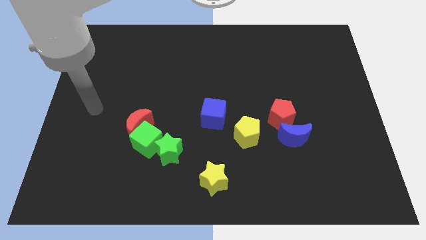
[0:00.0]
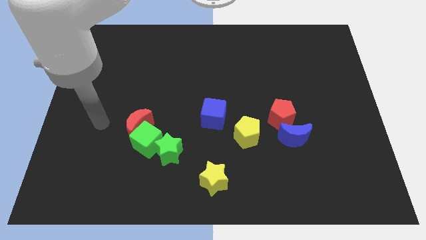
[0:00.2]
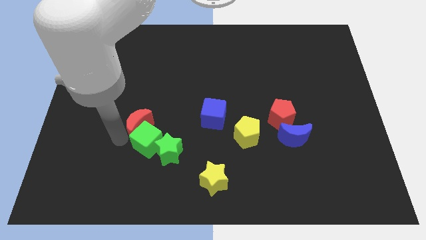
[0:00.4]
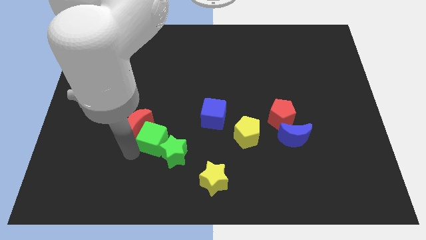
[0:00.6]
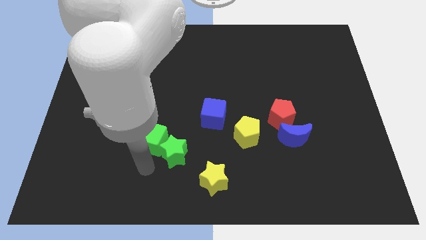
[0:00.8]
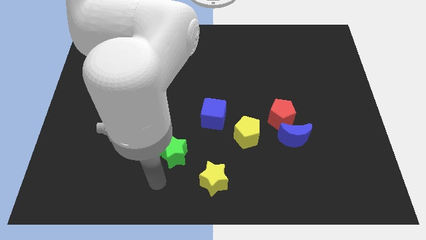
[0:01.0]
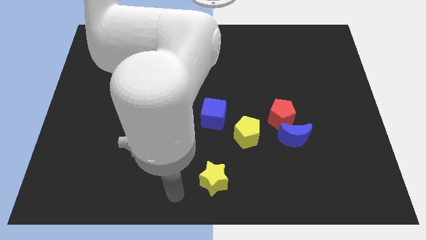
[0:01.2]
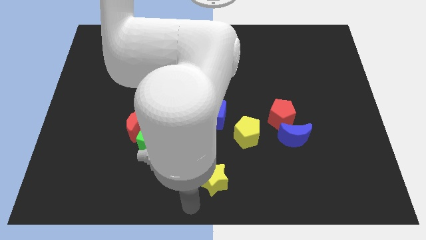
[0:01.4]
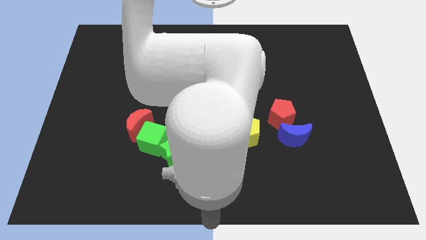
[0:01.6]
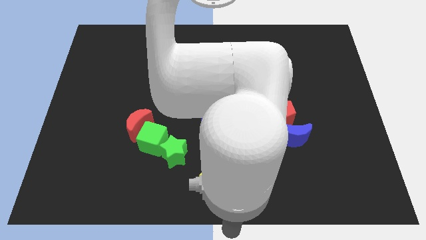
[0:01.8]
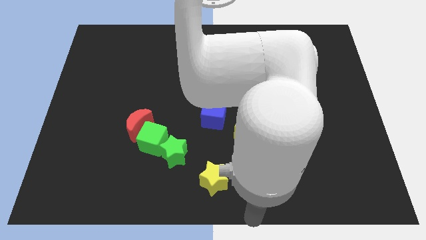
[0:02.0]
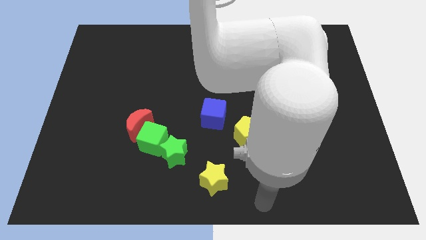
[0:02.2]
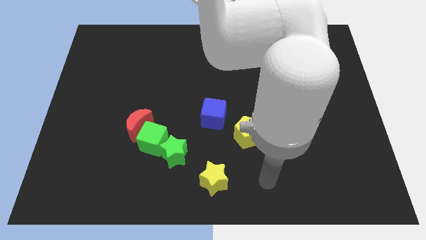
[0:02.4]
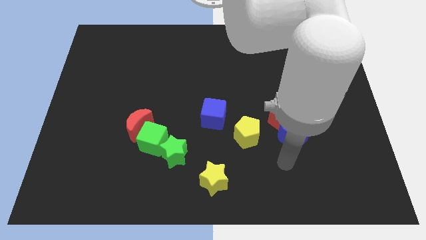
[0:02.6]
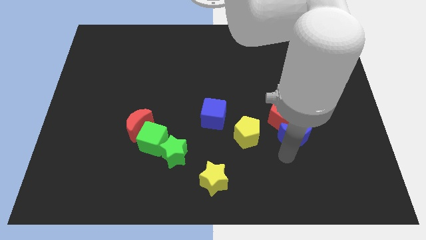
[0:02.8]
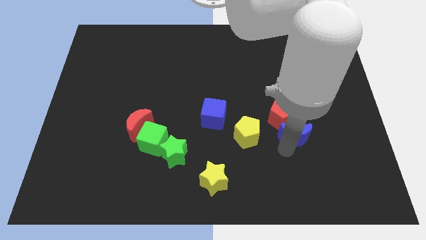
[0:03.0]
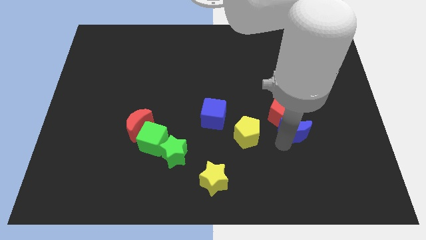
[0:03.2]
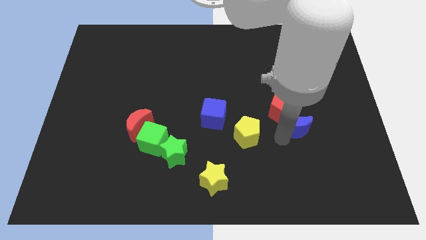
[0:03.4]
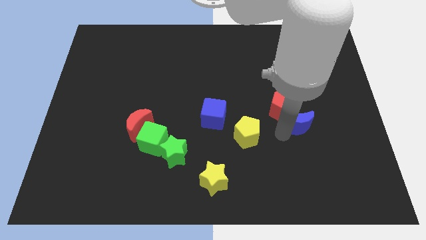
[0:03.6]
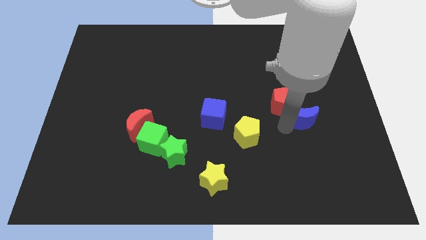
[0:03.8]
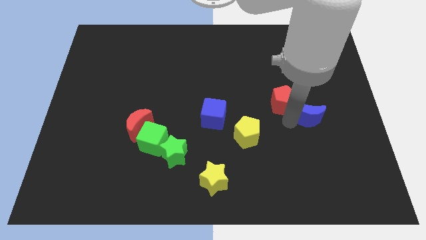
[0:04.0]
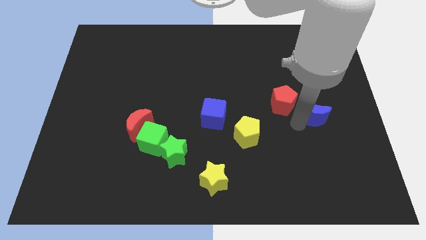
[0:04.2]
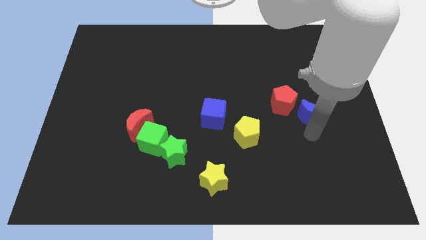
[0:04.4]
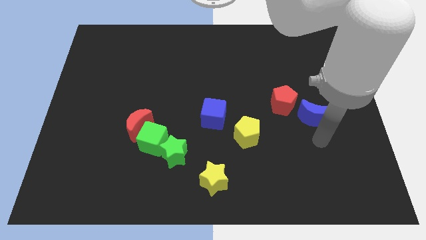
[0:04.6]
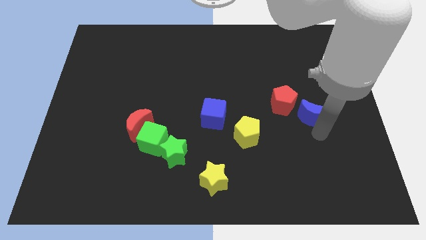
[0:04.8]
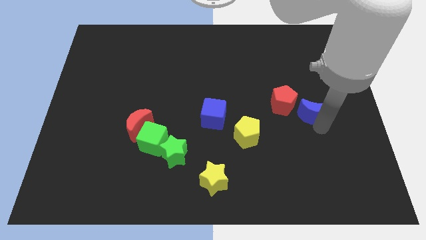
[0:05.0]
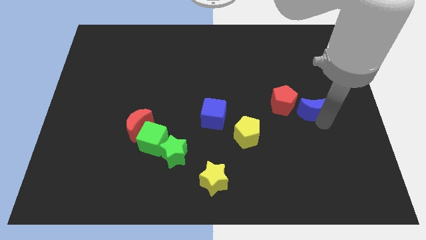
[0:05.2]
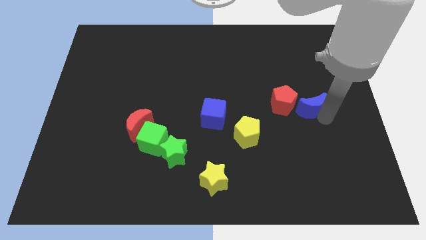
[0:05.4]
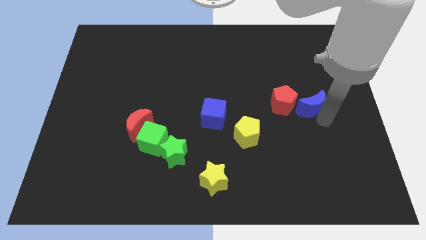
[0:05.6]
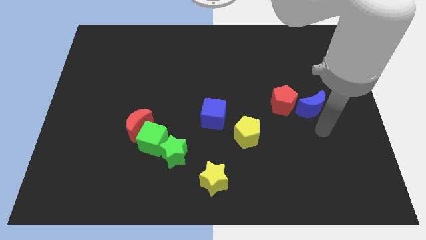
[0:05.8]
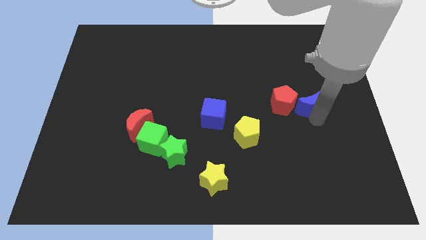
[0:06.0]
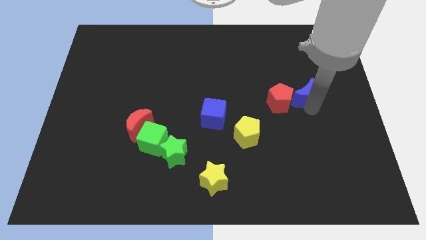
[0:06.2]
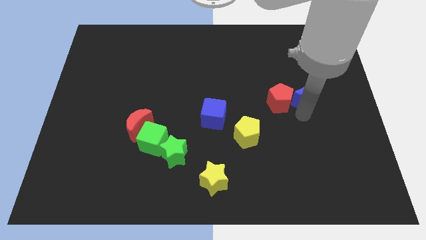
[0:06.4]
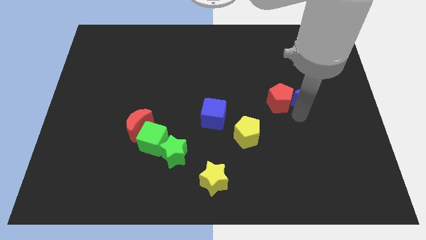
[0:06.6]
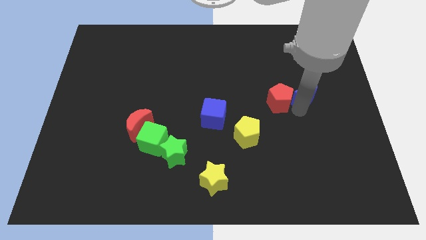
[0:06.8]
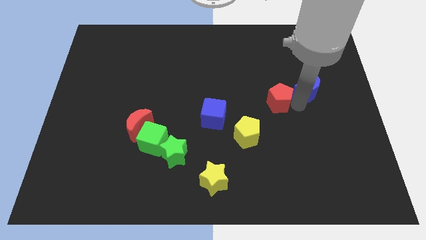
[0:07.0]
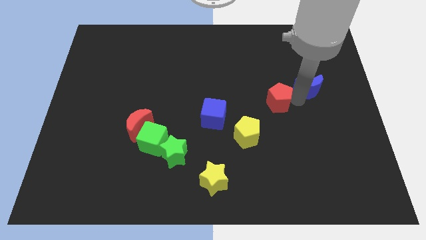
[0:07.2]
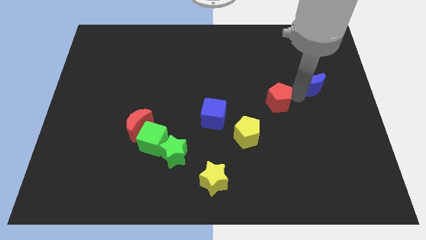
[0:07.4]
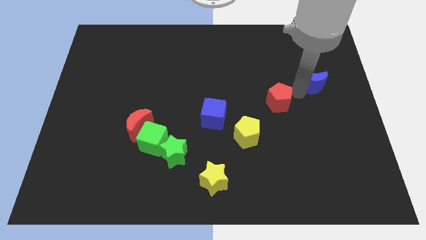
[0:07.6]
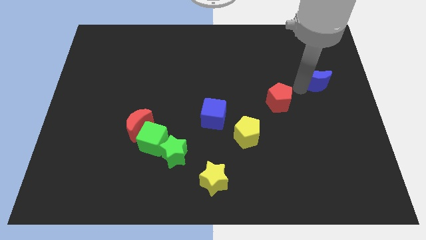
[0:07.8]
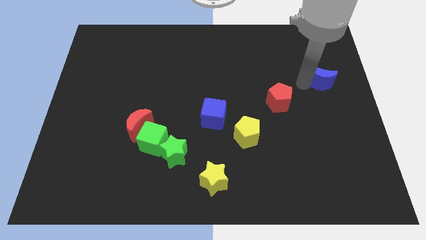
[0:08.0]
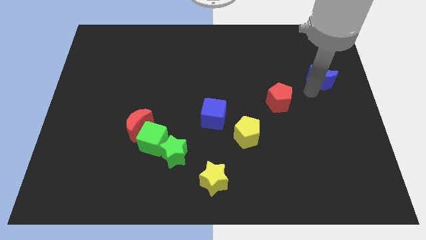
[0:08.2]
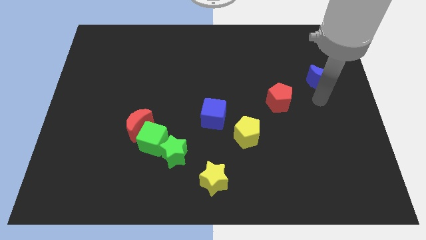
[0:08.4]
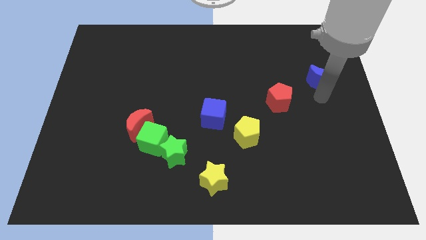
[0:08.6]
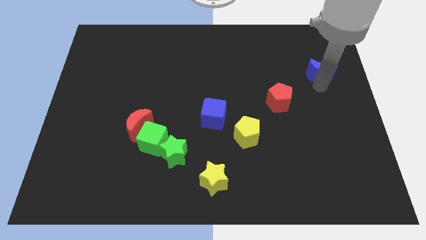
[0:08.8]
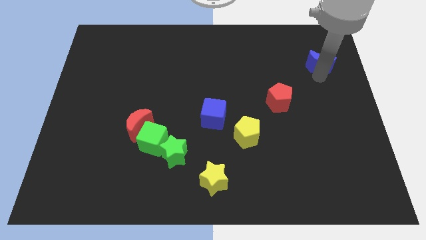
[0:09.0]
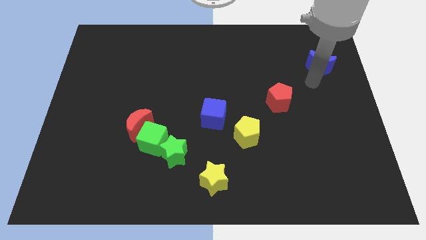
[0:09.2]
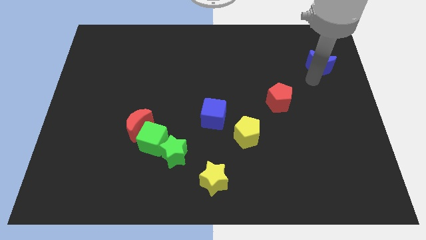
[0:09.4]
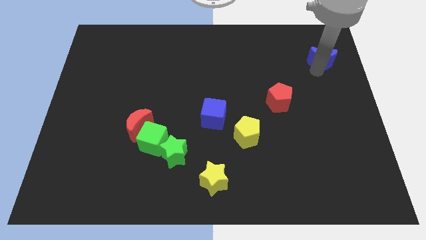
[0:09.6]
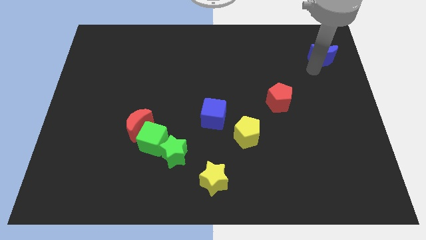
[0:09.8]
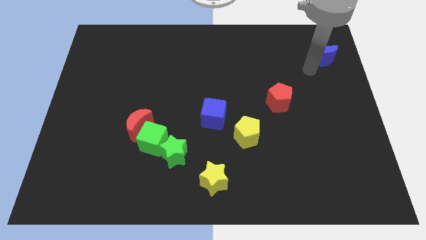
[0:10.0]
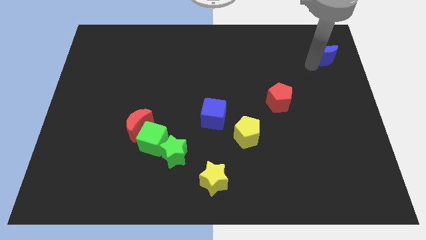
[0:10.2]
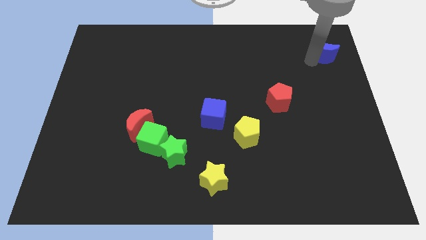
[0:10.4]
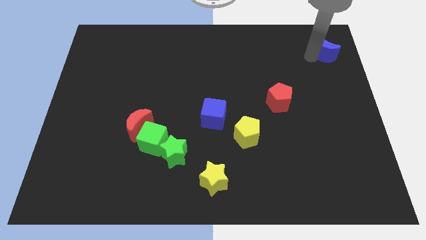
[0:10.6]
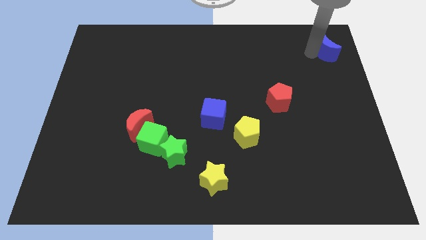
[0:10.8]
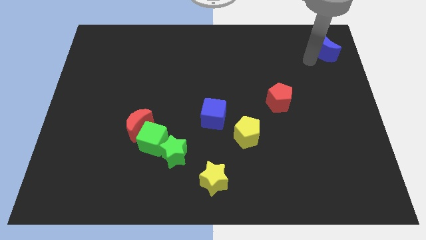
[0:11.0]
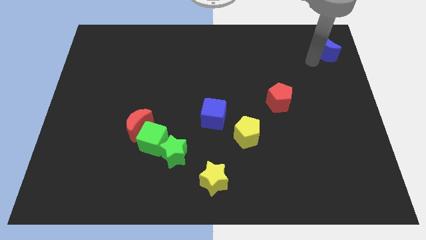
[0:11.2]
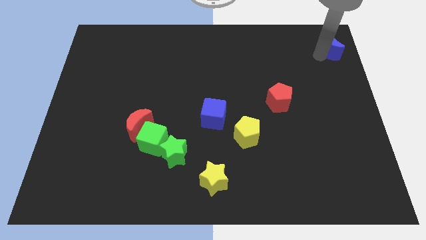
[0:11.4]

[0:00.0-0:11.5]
push the blue moon to the top right

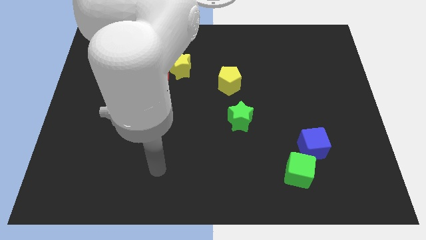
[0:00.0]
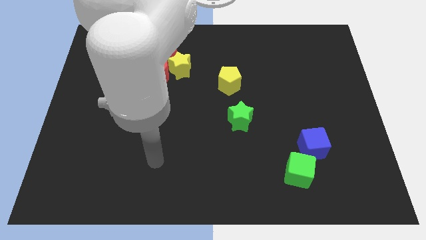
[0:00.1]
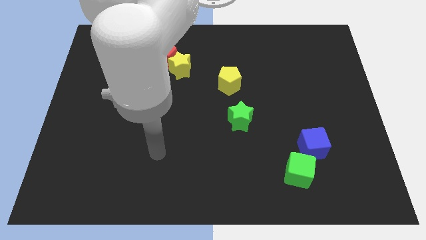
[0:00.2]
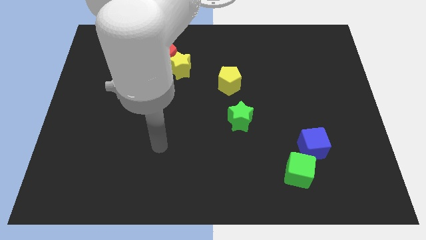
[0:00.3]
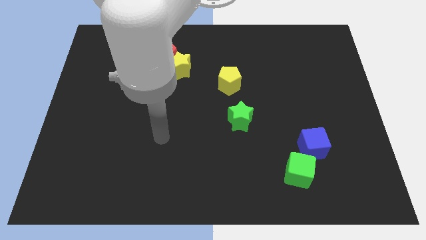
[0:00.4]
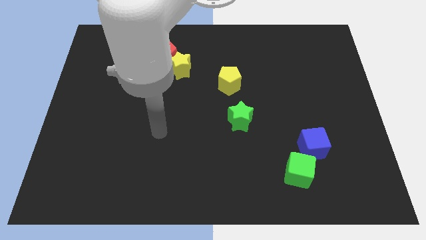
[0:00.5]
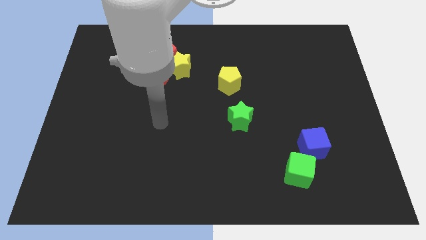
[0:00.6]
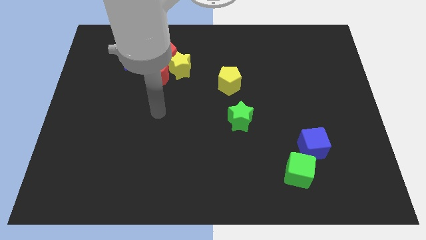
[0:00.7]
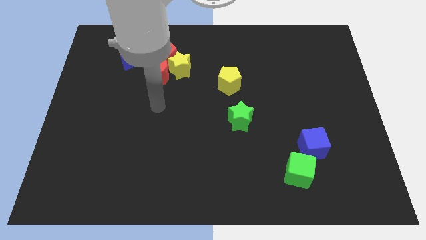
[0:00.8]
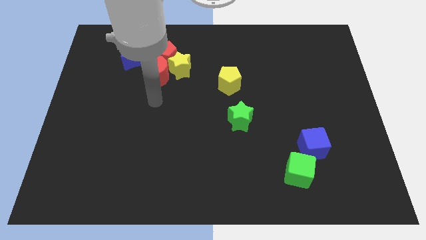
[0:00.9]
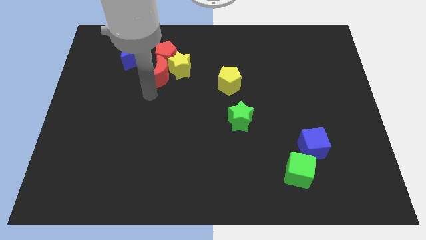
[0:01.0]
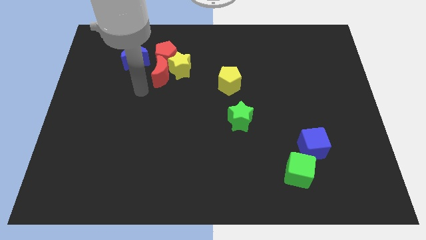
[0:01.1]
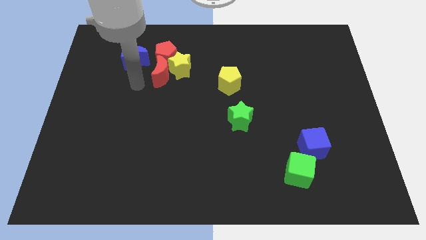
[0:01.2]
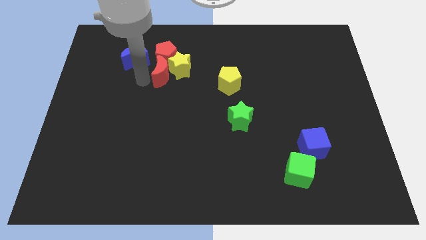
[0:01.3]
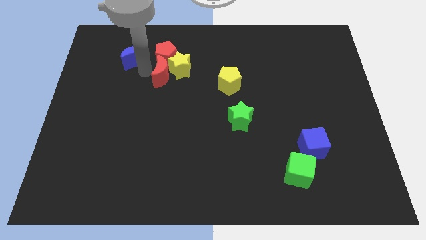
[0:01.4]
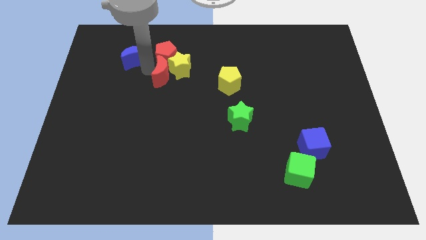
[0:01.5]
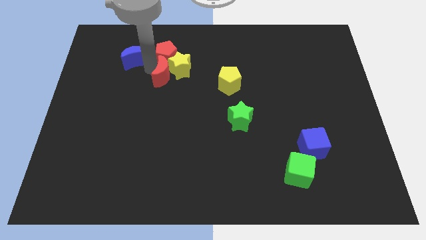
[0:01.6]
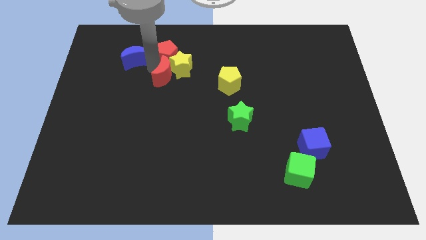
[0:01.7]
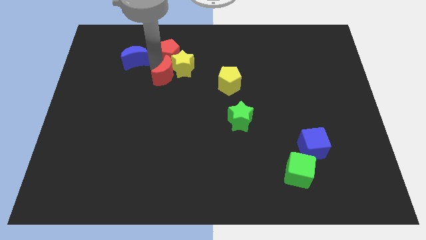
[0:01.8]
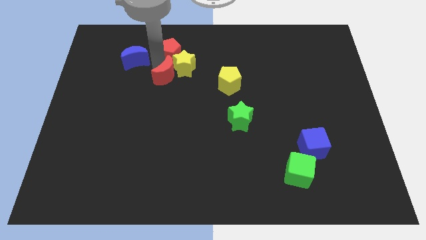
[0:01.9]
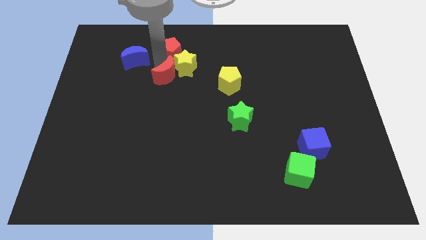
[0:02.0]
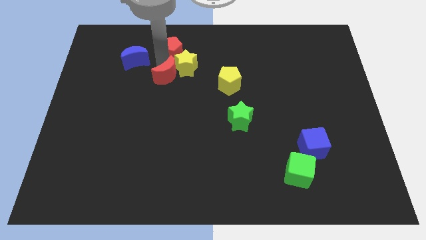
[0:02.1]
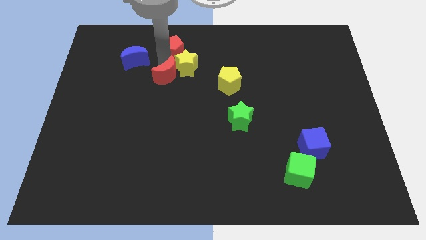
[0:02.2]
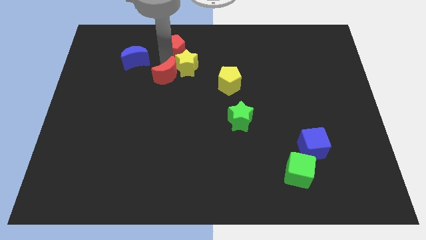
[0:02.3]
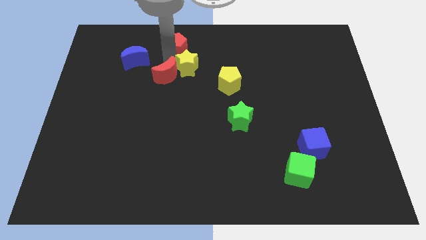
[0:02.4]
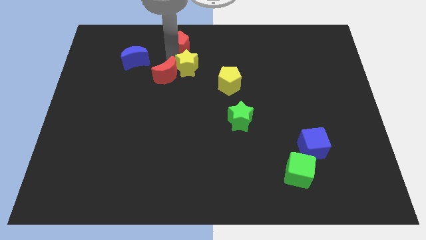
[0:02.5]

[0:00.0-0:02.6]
move the red pentagon to the towards your base
